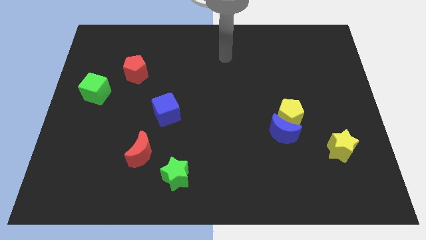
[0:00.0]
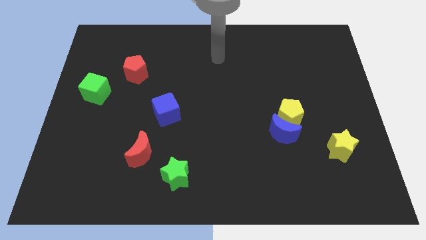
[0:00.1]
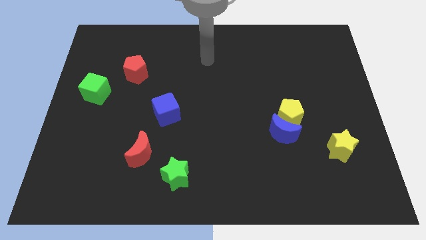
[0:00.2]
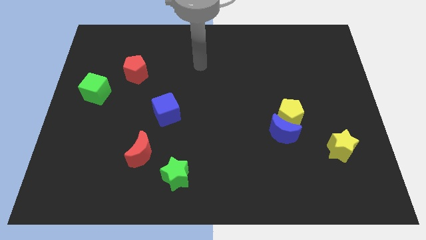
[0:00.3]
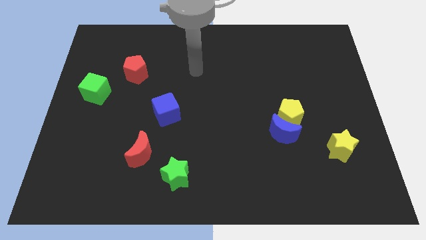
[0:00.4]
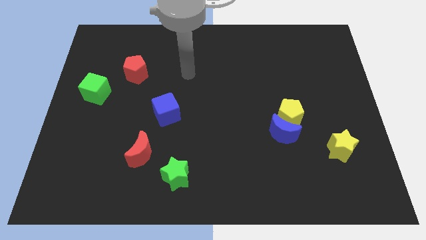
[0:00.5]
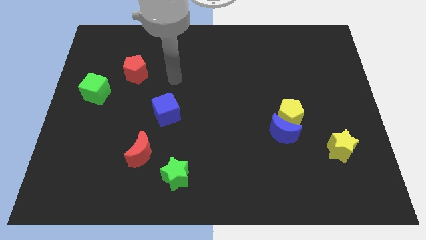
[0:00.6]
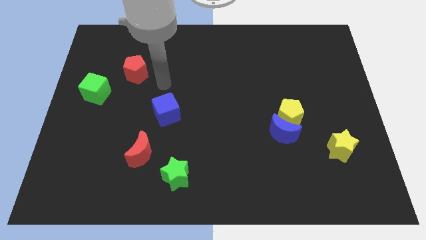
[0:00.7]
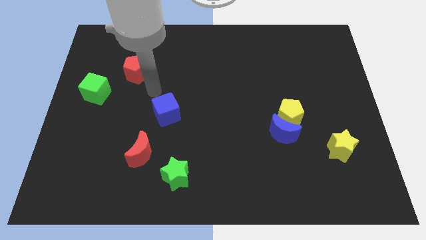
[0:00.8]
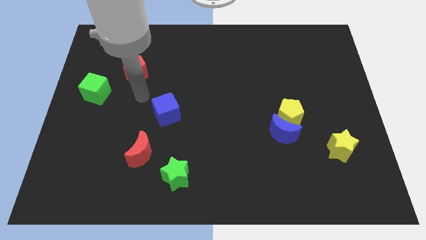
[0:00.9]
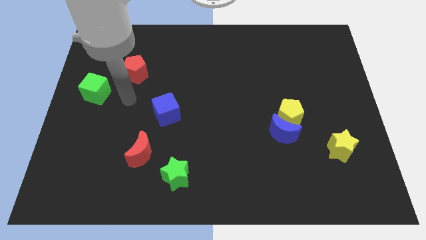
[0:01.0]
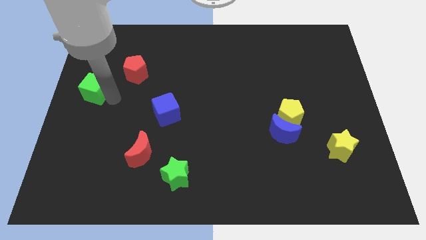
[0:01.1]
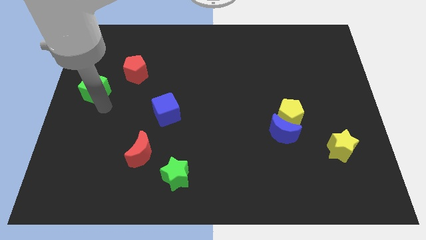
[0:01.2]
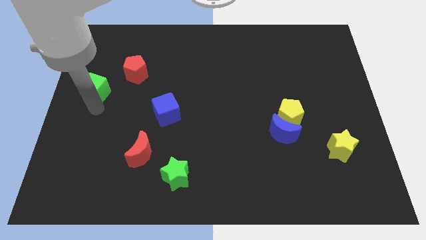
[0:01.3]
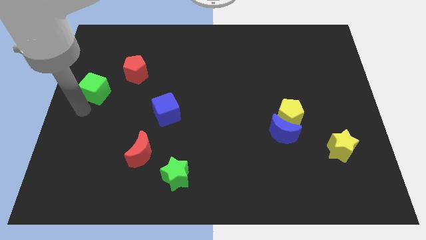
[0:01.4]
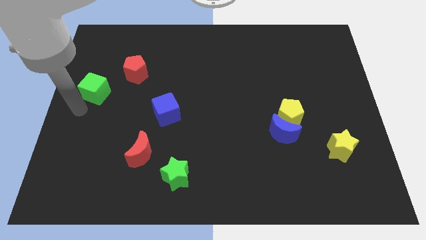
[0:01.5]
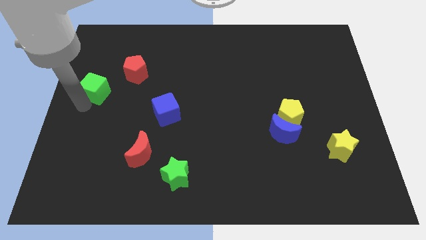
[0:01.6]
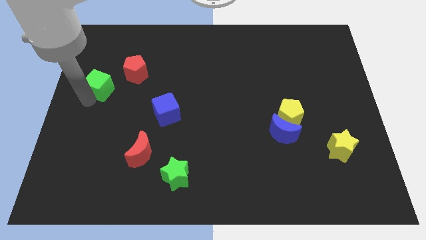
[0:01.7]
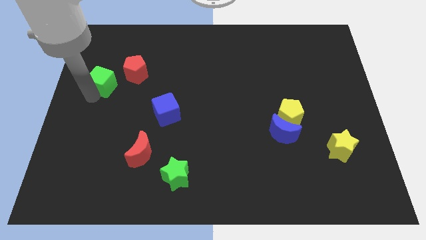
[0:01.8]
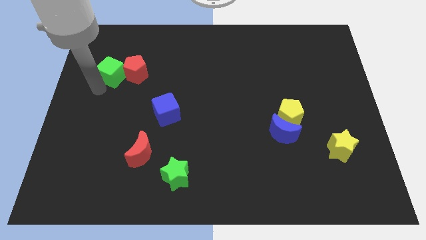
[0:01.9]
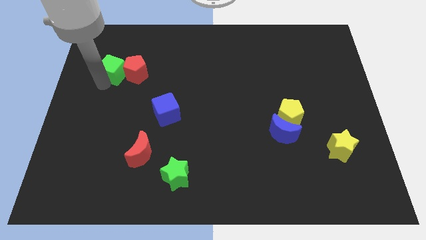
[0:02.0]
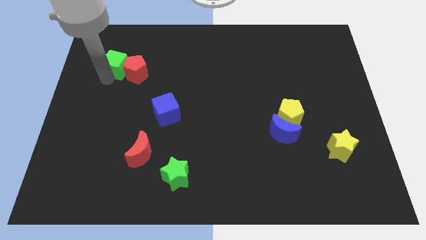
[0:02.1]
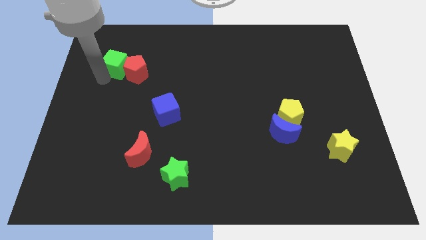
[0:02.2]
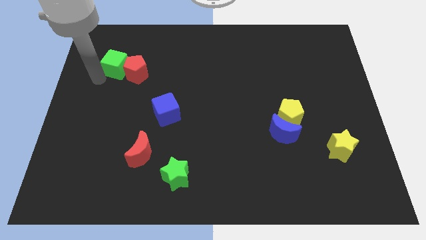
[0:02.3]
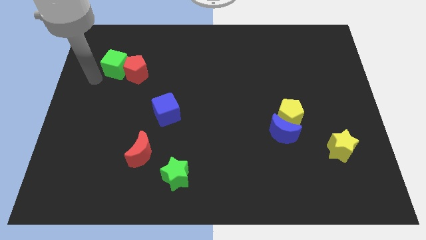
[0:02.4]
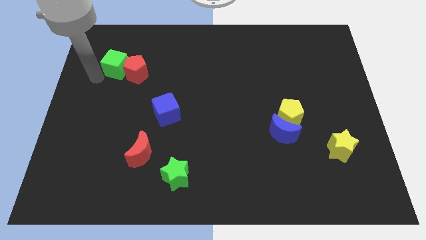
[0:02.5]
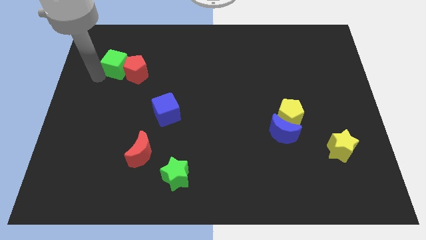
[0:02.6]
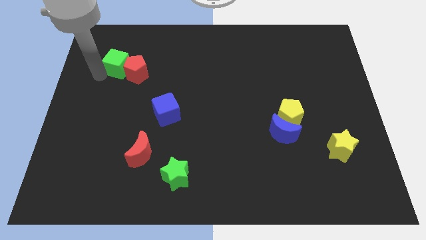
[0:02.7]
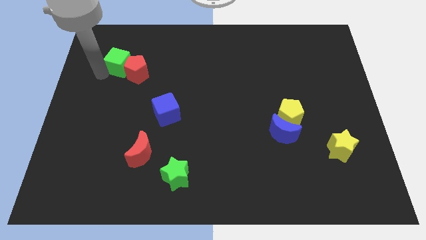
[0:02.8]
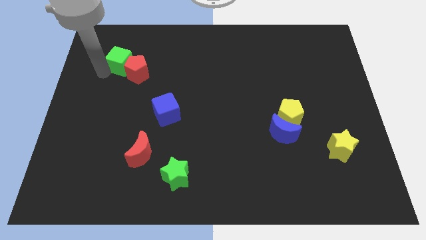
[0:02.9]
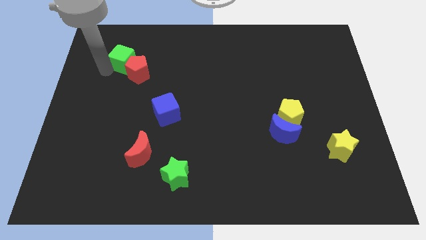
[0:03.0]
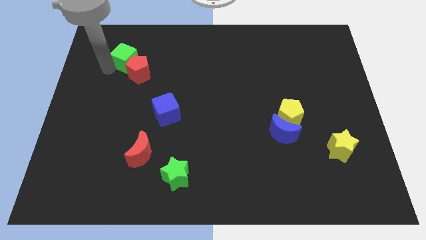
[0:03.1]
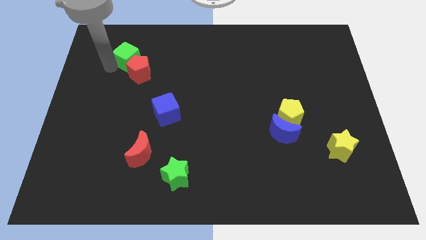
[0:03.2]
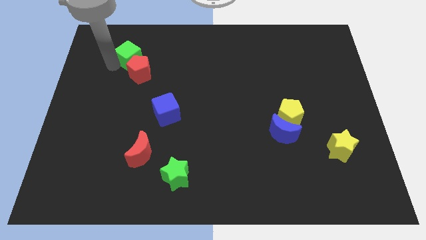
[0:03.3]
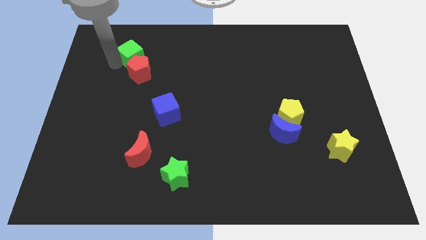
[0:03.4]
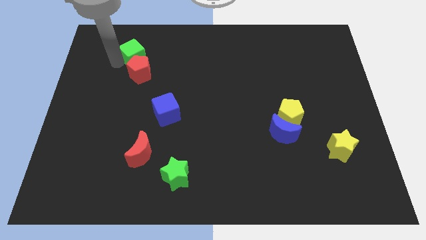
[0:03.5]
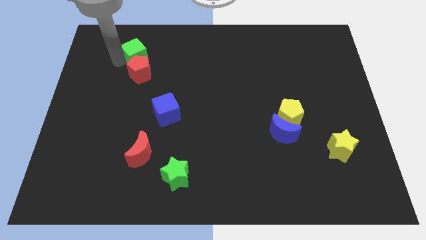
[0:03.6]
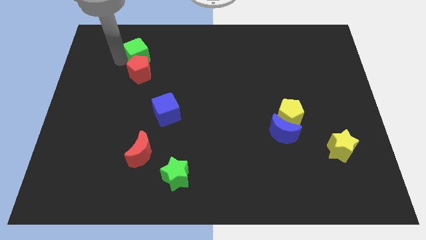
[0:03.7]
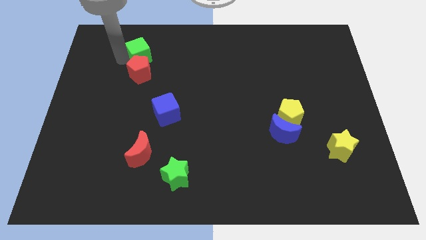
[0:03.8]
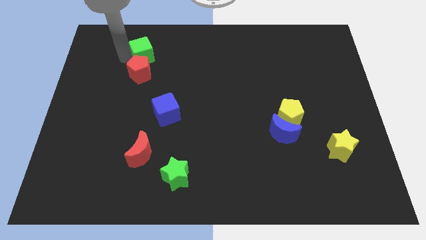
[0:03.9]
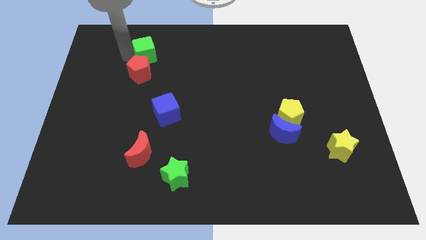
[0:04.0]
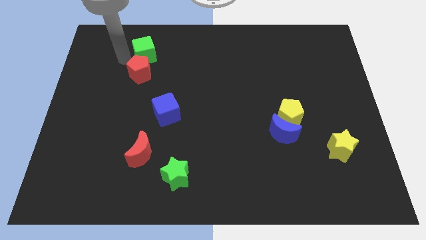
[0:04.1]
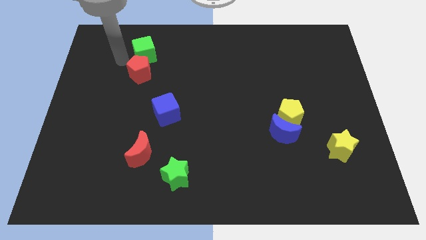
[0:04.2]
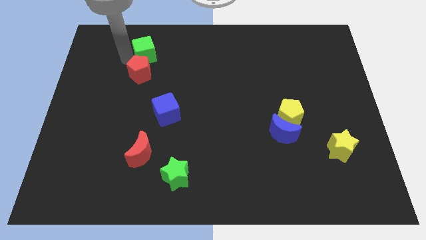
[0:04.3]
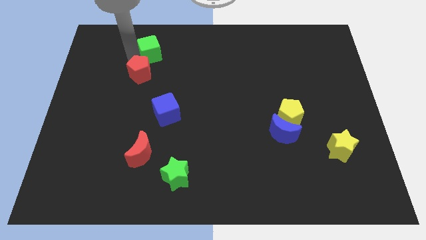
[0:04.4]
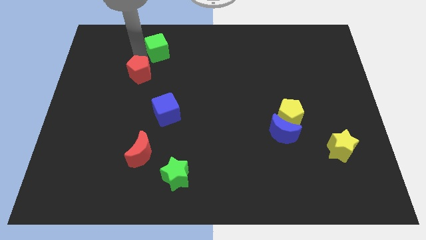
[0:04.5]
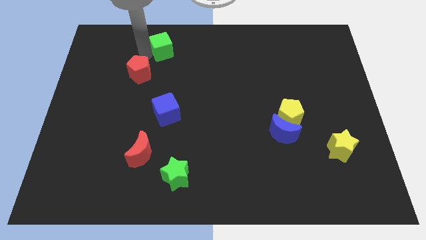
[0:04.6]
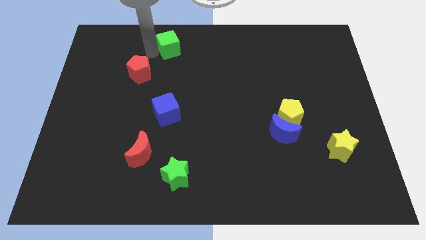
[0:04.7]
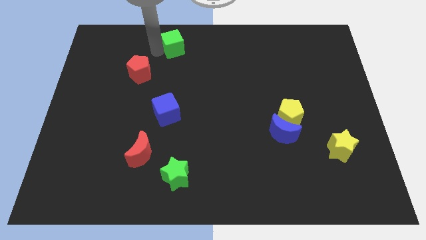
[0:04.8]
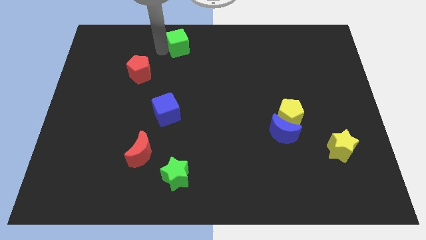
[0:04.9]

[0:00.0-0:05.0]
move the green cube to the top

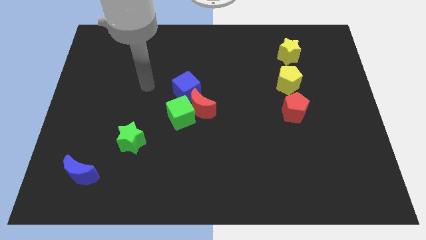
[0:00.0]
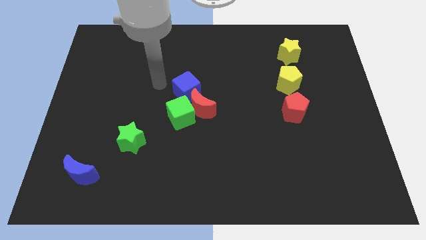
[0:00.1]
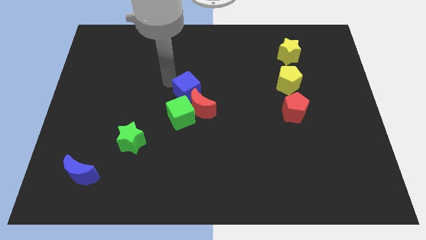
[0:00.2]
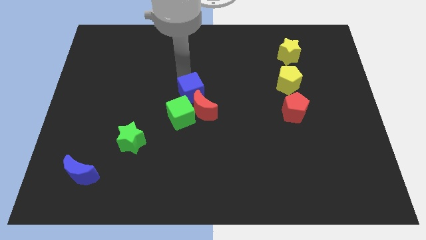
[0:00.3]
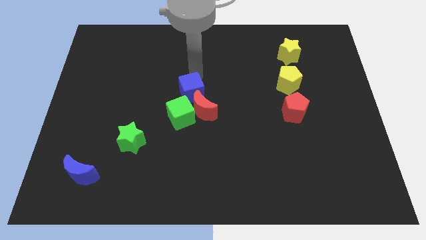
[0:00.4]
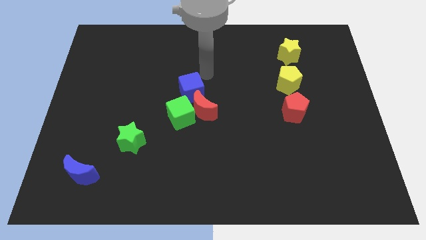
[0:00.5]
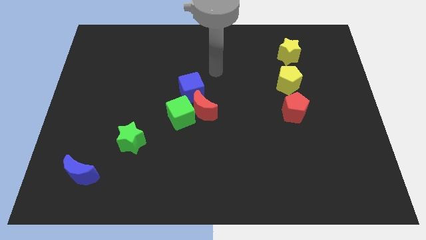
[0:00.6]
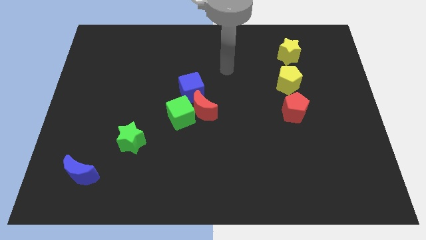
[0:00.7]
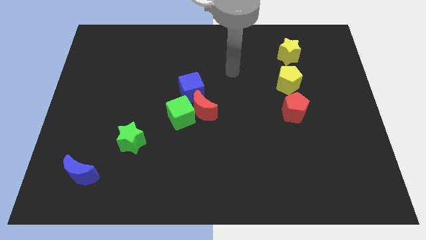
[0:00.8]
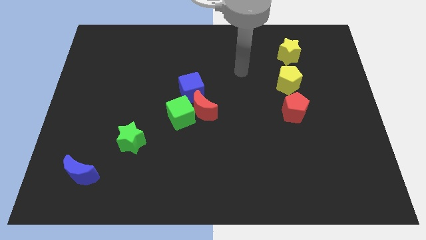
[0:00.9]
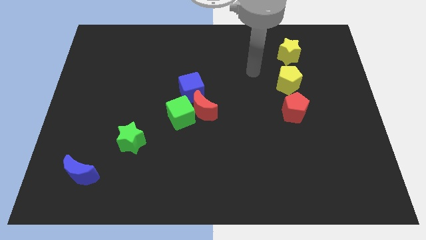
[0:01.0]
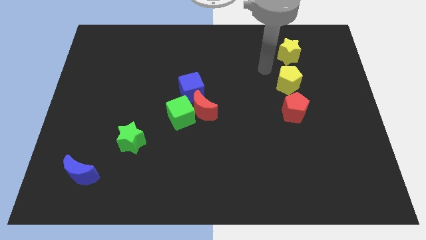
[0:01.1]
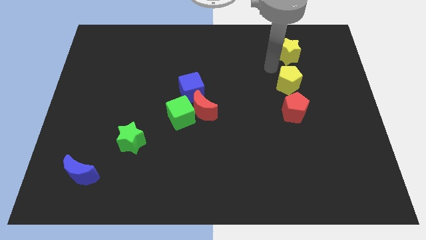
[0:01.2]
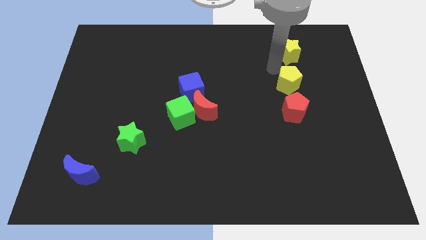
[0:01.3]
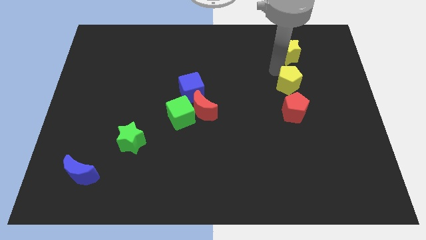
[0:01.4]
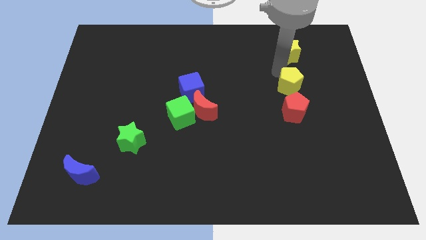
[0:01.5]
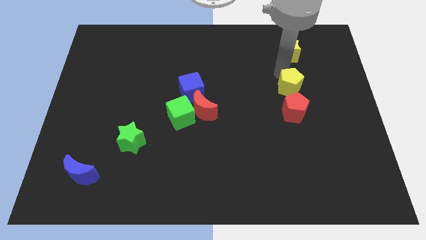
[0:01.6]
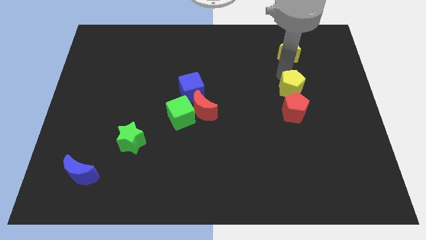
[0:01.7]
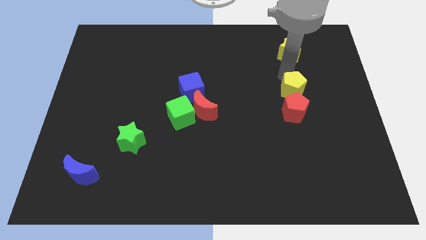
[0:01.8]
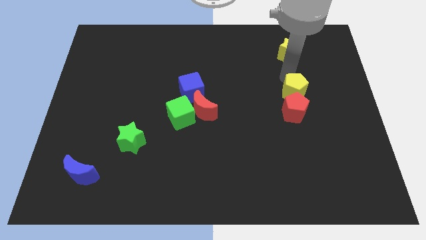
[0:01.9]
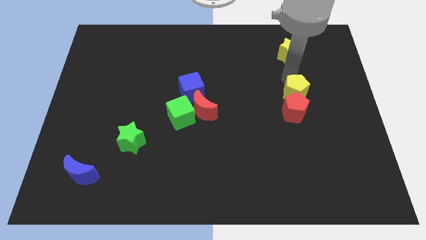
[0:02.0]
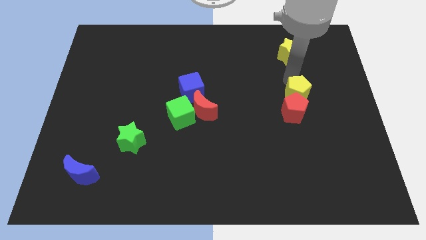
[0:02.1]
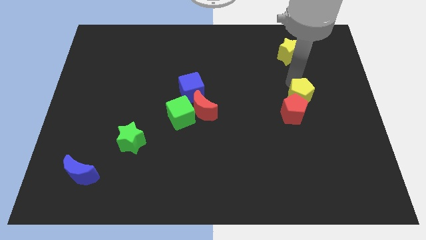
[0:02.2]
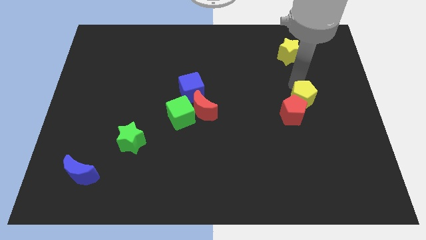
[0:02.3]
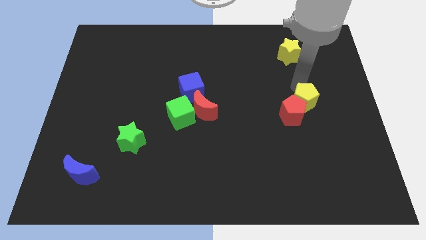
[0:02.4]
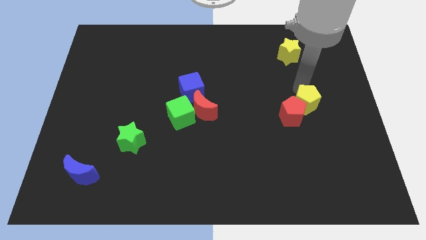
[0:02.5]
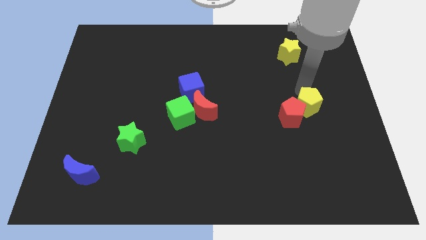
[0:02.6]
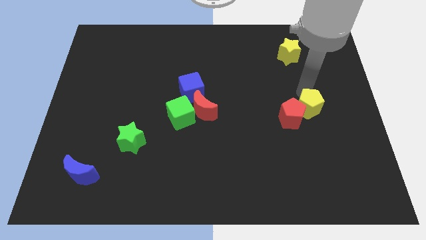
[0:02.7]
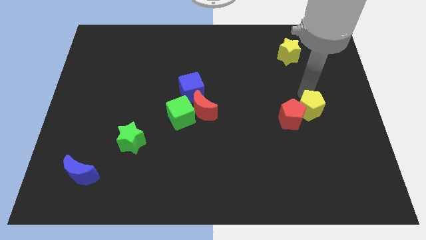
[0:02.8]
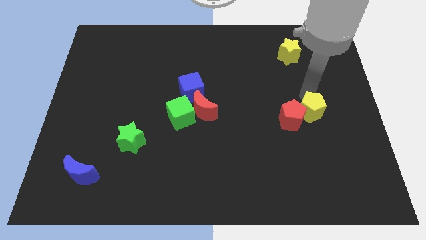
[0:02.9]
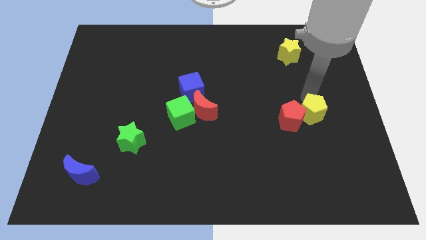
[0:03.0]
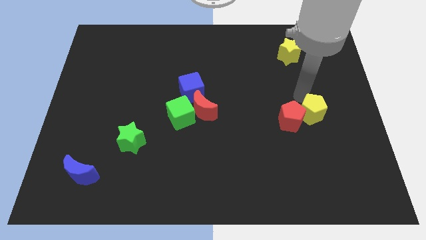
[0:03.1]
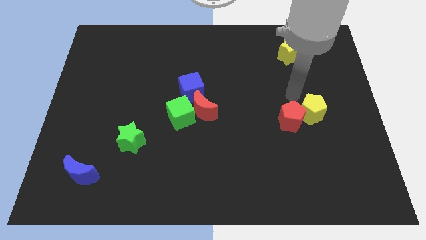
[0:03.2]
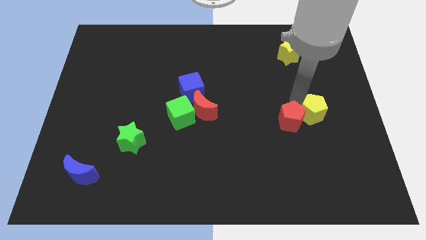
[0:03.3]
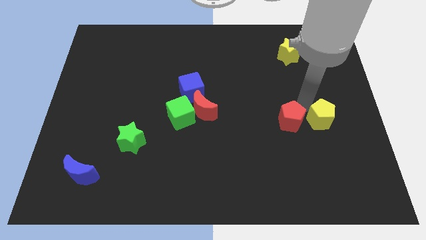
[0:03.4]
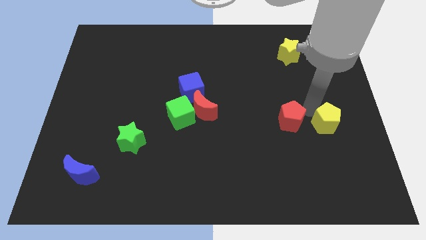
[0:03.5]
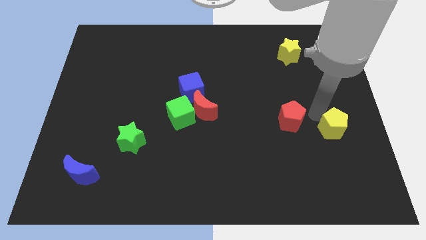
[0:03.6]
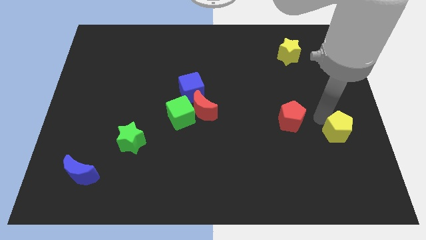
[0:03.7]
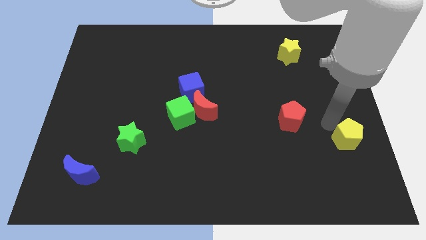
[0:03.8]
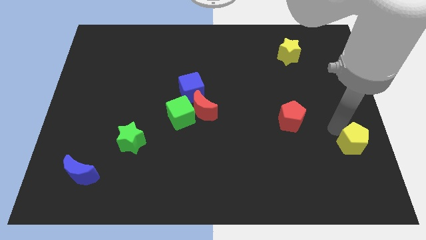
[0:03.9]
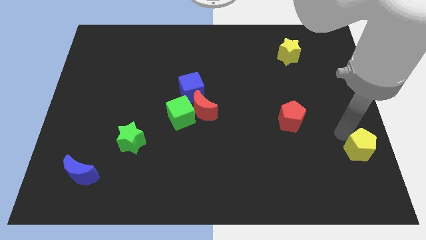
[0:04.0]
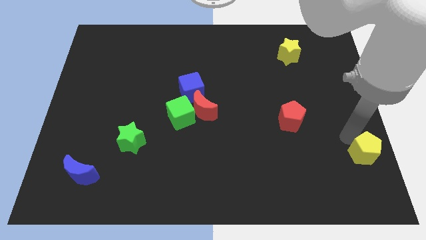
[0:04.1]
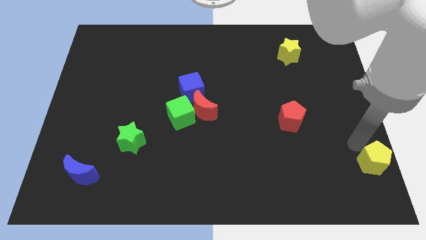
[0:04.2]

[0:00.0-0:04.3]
push the yellow pentagon to the bottom right of the board
